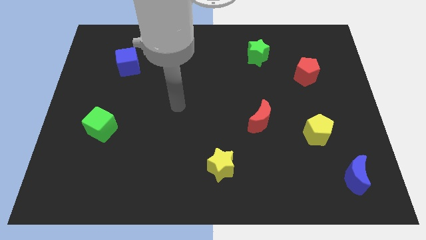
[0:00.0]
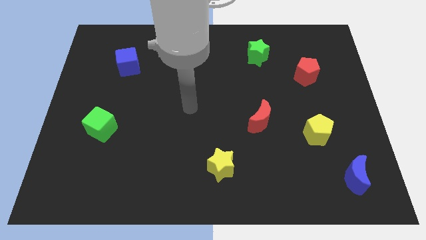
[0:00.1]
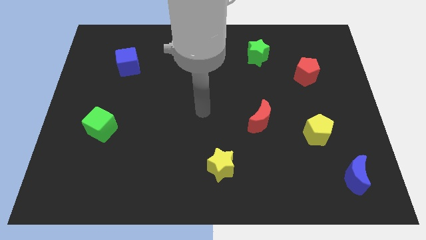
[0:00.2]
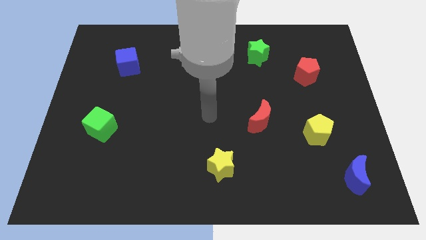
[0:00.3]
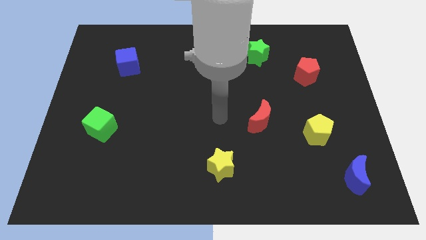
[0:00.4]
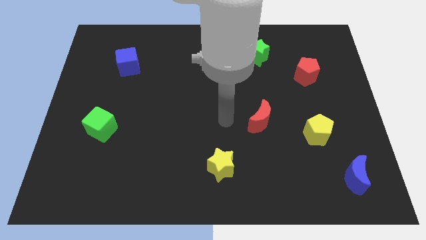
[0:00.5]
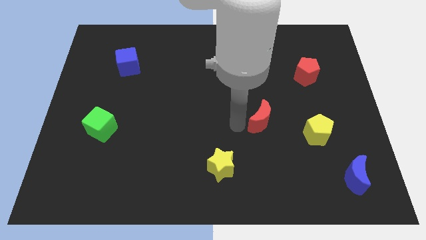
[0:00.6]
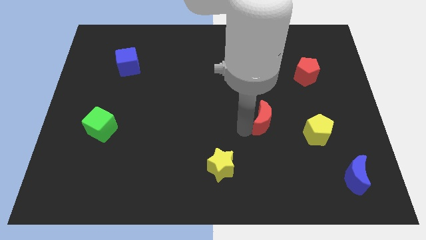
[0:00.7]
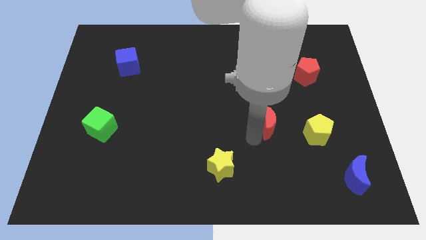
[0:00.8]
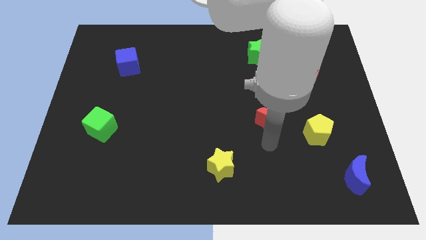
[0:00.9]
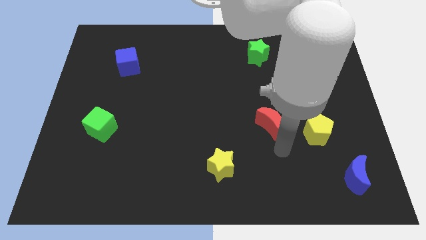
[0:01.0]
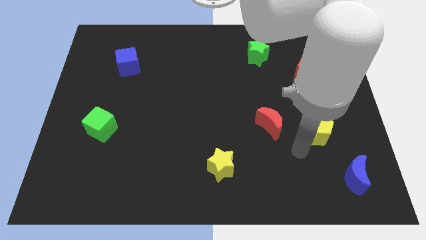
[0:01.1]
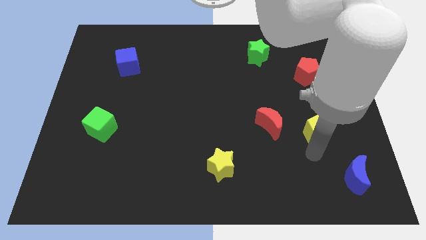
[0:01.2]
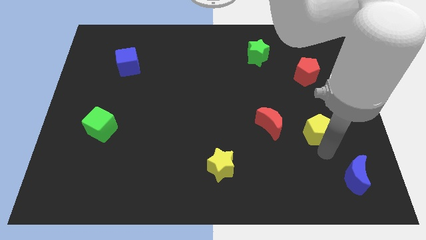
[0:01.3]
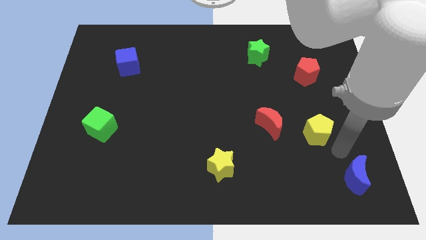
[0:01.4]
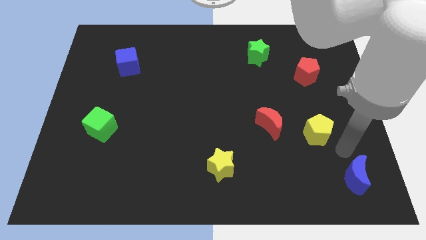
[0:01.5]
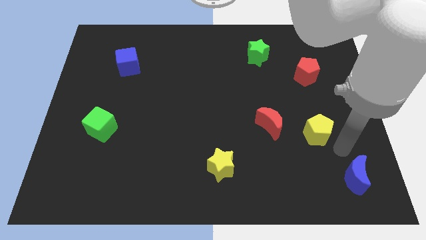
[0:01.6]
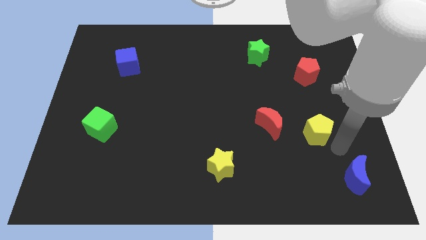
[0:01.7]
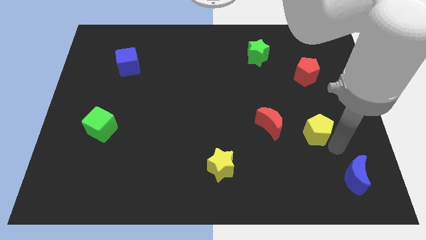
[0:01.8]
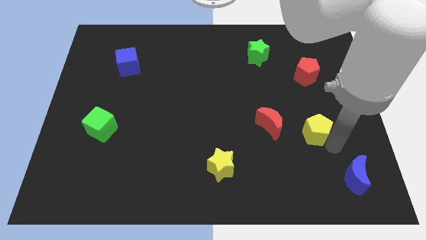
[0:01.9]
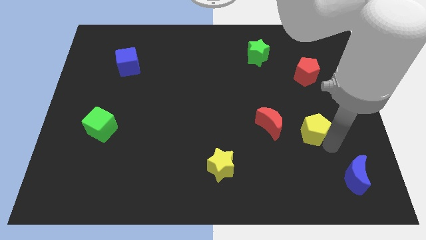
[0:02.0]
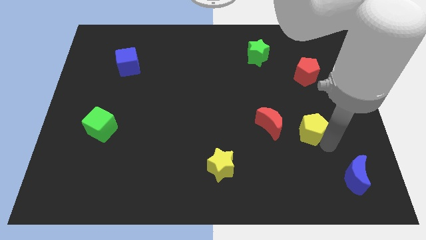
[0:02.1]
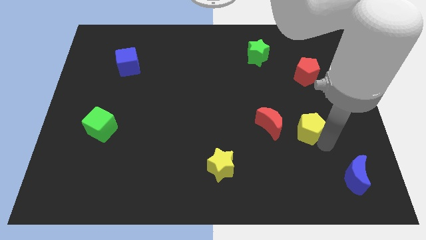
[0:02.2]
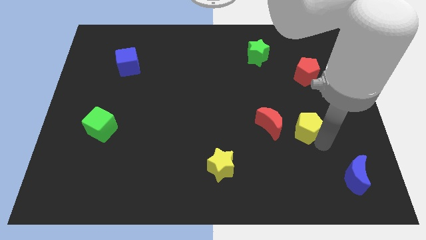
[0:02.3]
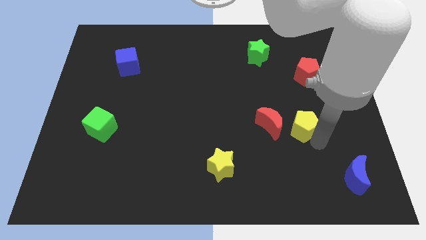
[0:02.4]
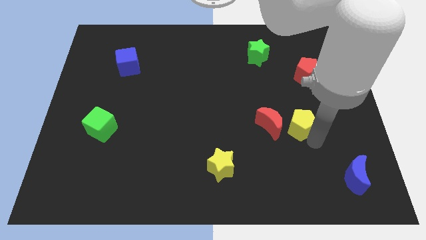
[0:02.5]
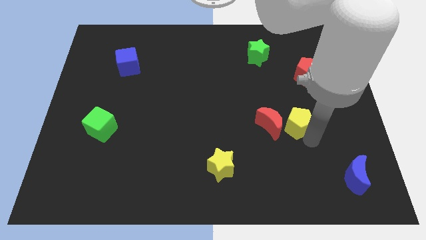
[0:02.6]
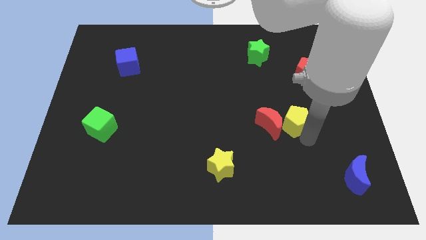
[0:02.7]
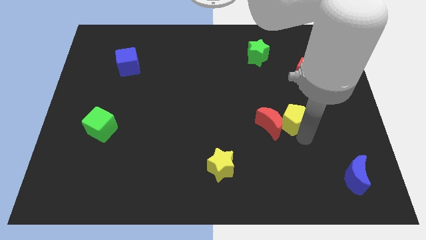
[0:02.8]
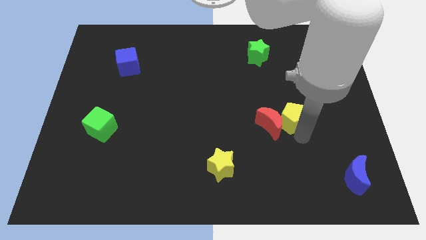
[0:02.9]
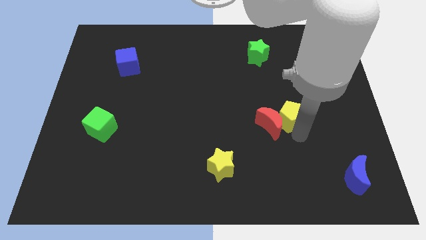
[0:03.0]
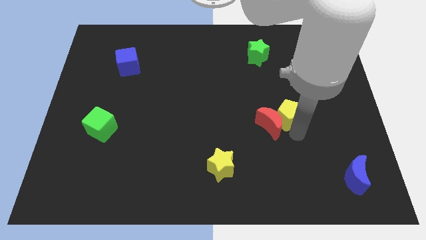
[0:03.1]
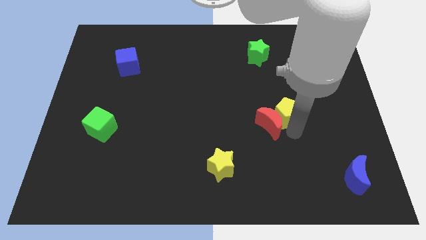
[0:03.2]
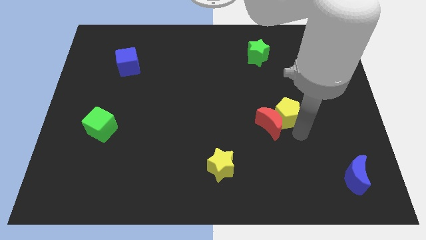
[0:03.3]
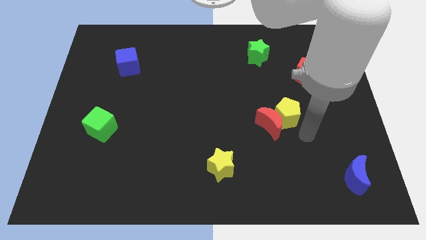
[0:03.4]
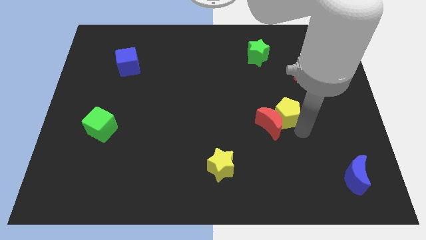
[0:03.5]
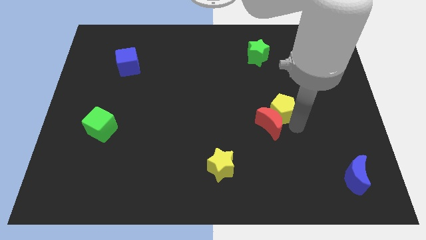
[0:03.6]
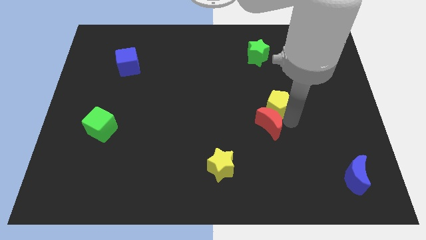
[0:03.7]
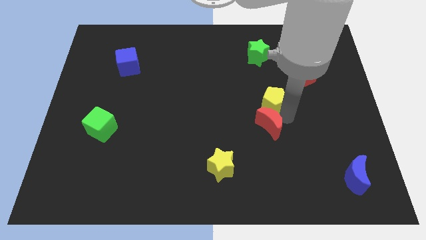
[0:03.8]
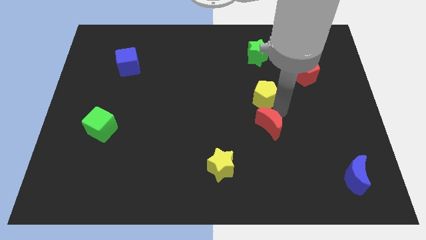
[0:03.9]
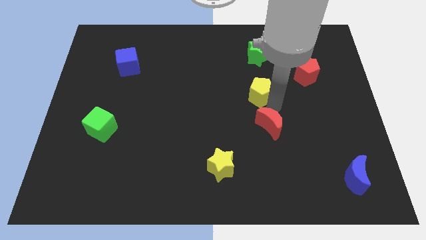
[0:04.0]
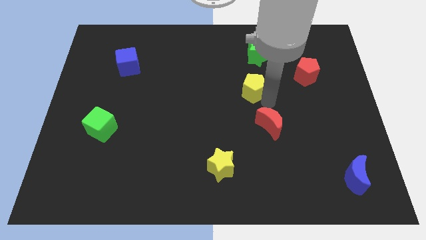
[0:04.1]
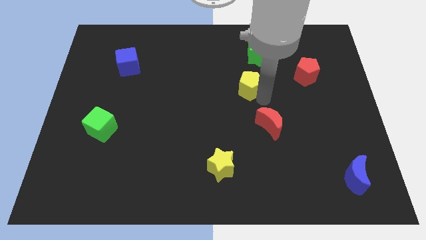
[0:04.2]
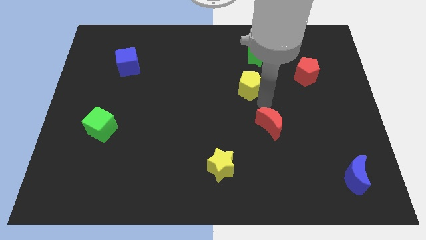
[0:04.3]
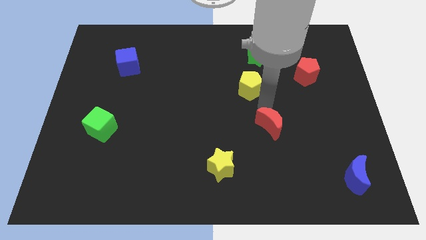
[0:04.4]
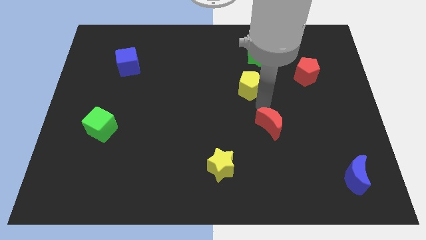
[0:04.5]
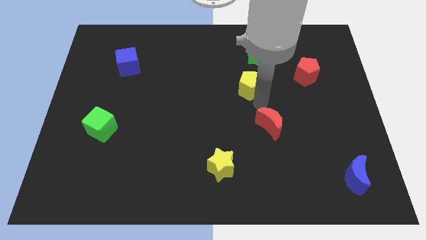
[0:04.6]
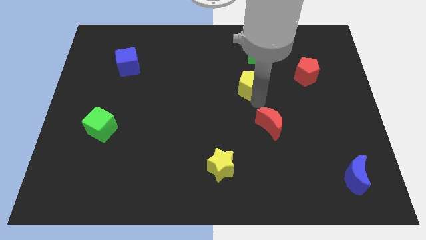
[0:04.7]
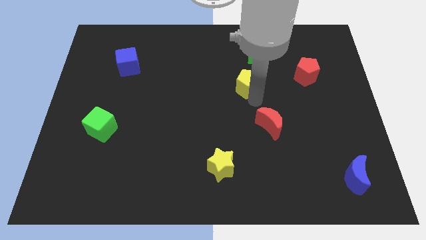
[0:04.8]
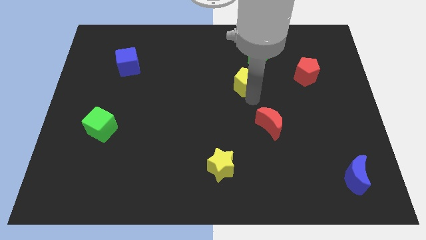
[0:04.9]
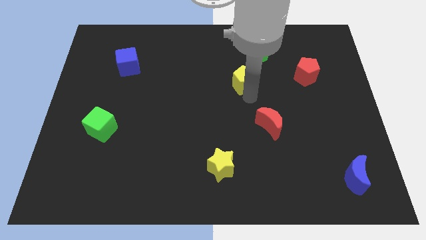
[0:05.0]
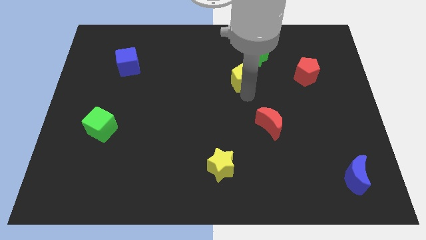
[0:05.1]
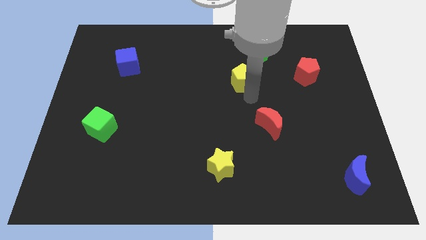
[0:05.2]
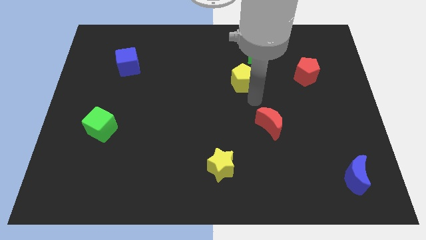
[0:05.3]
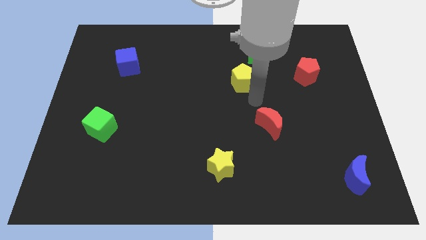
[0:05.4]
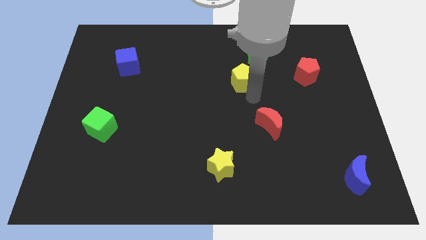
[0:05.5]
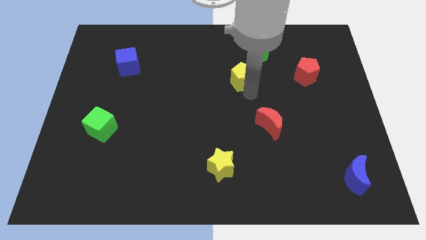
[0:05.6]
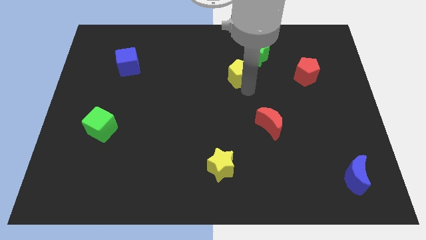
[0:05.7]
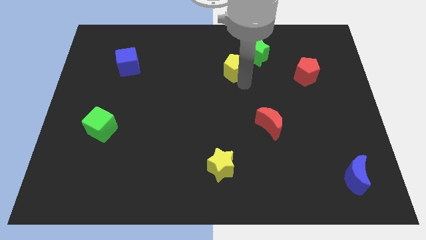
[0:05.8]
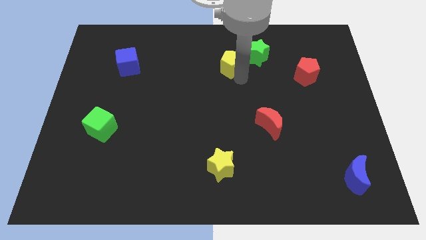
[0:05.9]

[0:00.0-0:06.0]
push the yellow pentagon left of the green star

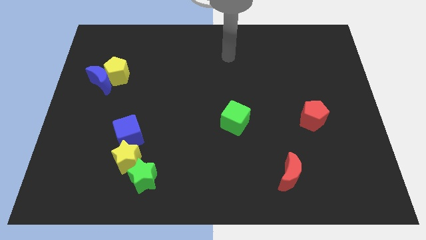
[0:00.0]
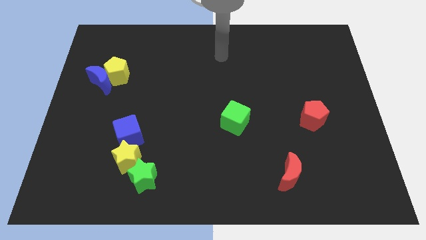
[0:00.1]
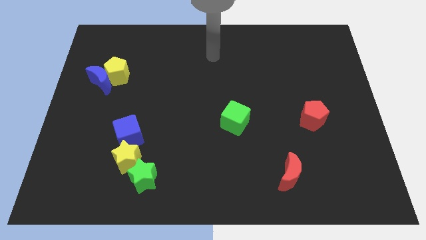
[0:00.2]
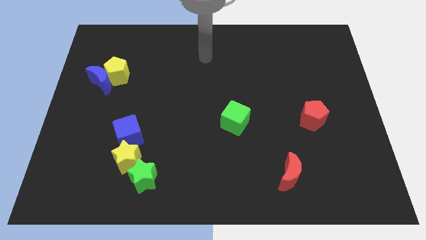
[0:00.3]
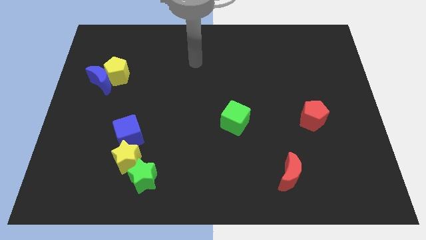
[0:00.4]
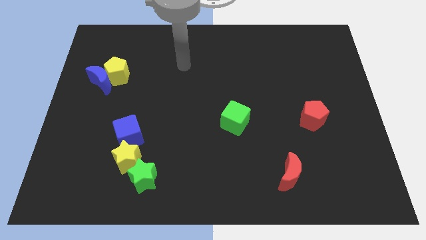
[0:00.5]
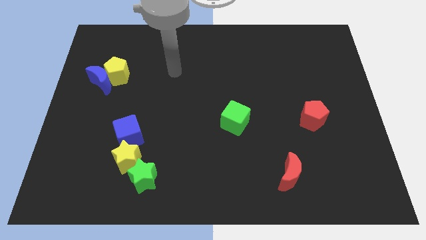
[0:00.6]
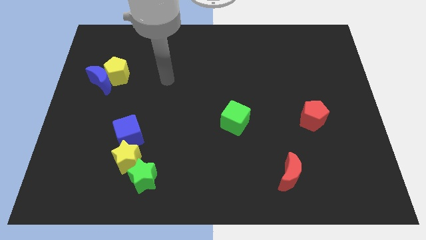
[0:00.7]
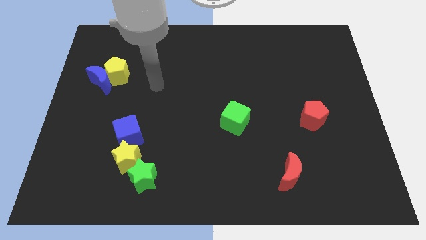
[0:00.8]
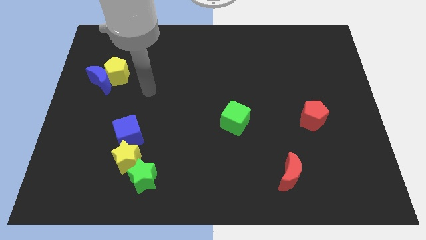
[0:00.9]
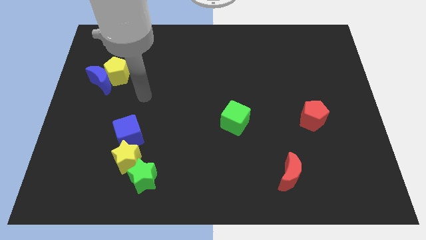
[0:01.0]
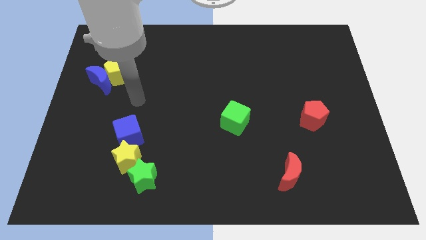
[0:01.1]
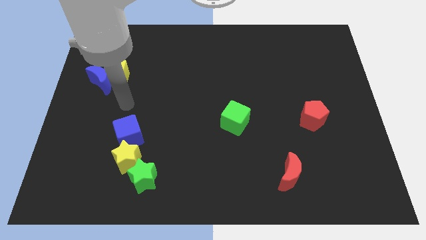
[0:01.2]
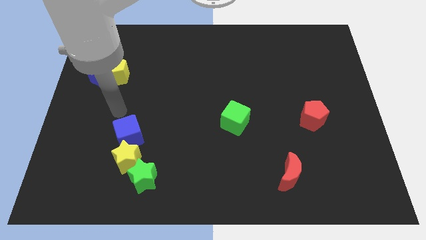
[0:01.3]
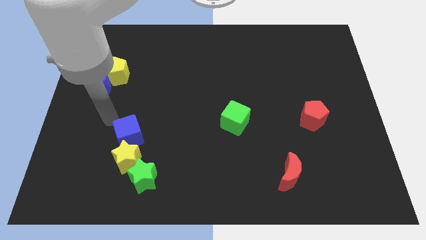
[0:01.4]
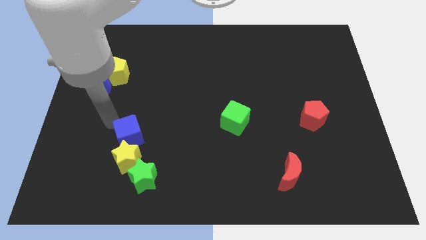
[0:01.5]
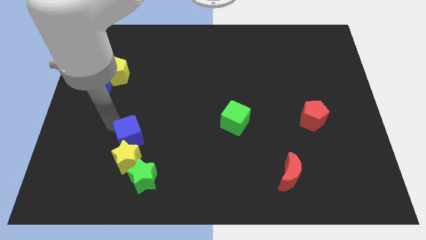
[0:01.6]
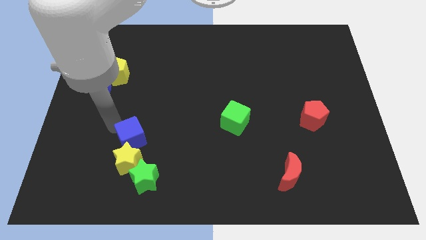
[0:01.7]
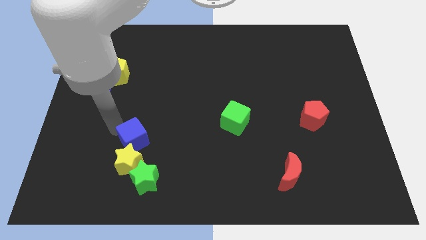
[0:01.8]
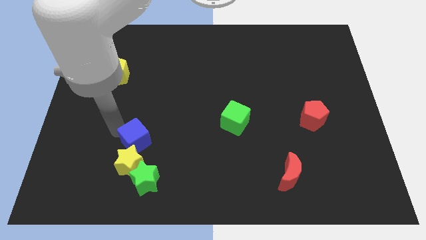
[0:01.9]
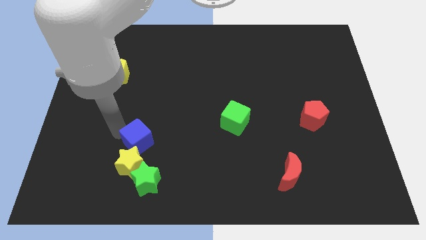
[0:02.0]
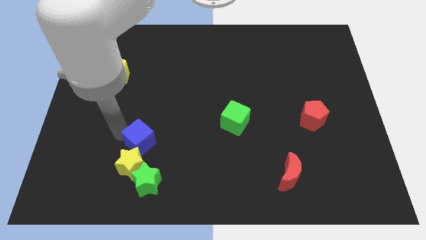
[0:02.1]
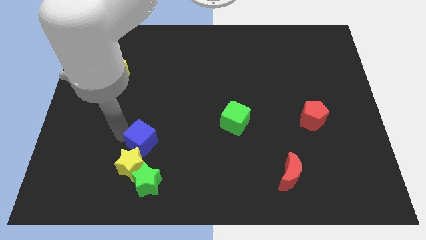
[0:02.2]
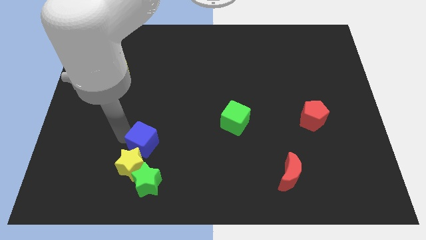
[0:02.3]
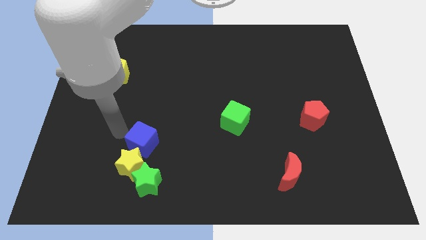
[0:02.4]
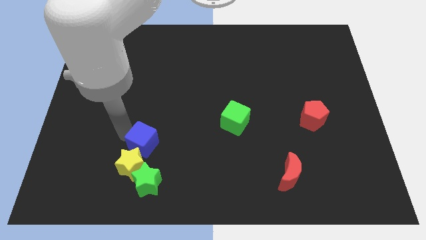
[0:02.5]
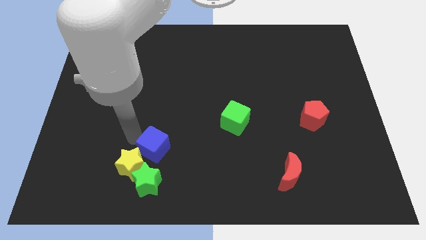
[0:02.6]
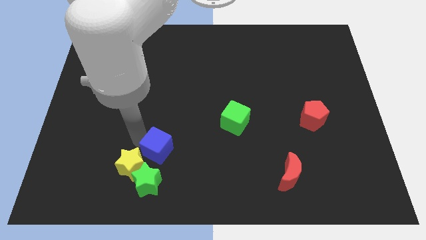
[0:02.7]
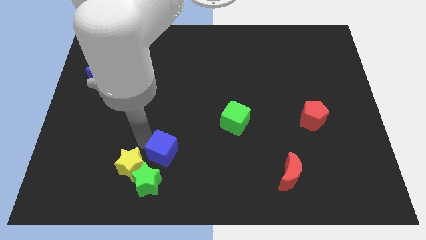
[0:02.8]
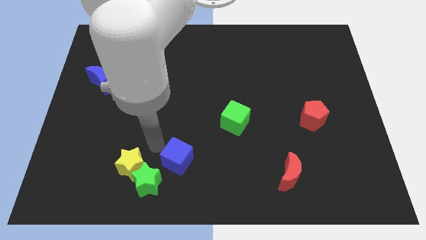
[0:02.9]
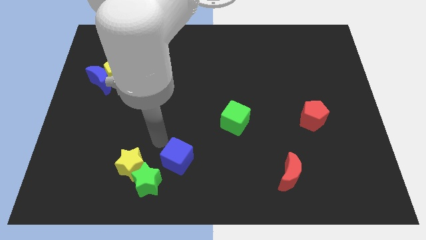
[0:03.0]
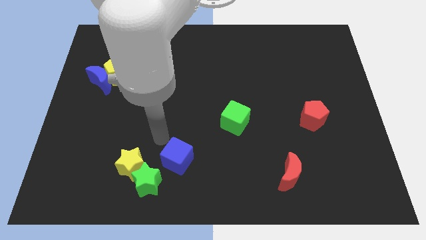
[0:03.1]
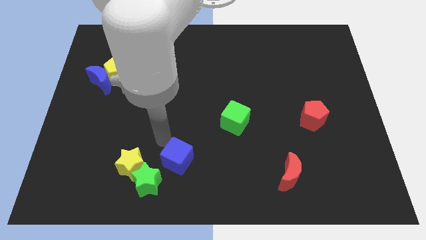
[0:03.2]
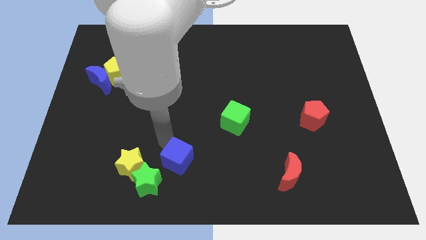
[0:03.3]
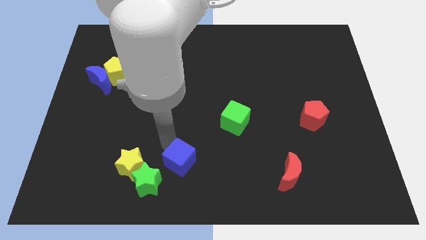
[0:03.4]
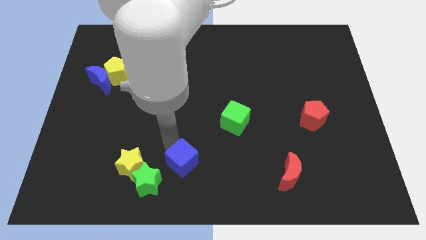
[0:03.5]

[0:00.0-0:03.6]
move the blue cube to the right of the green star
